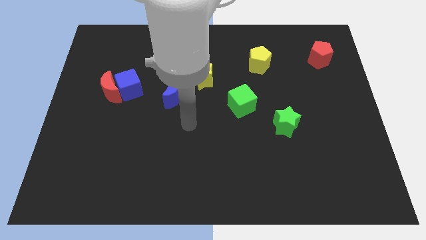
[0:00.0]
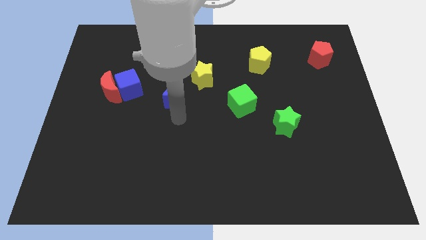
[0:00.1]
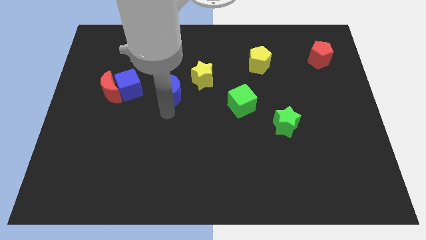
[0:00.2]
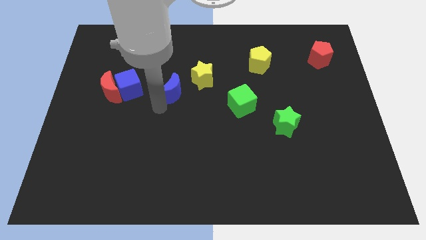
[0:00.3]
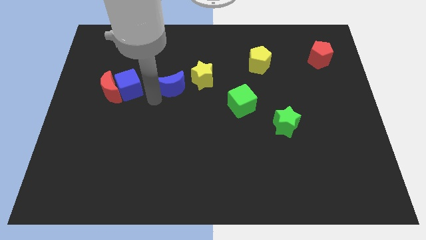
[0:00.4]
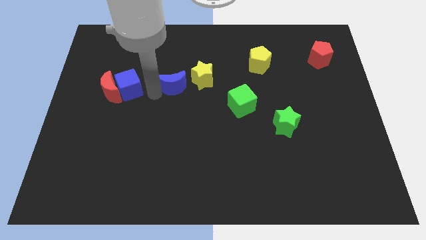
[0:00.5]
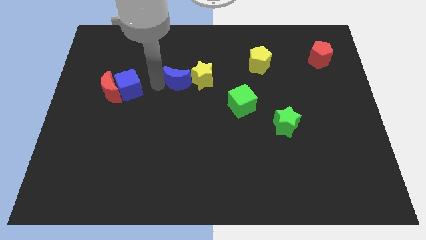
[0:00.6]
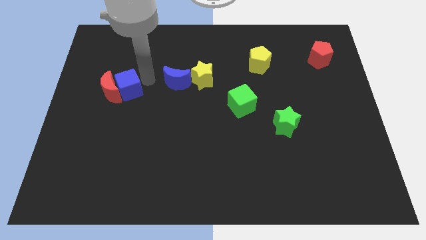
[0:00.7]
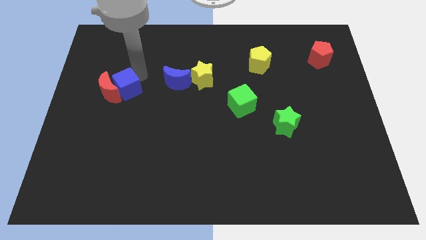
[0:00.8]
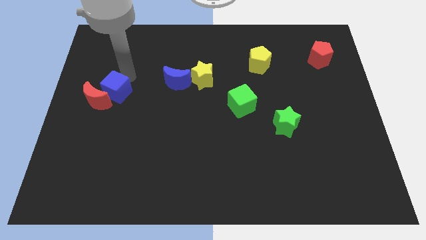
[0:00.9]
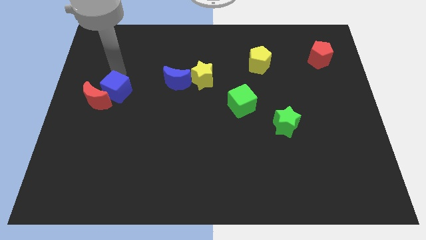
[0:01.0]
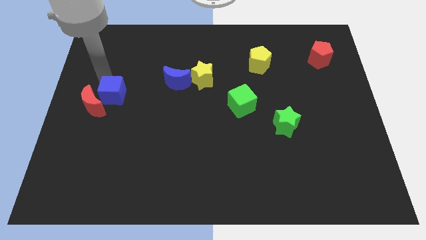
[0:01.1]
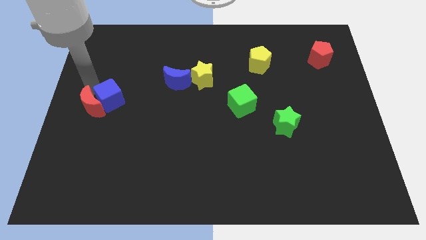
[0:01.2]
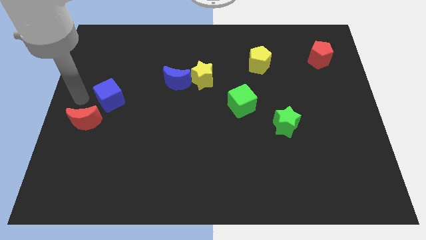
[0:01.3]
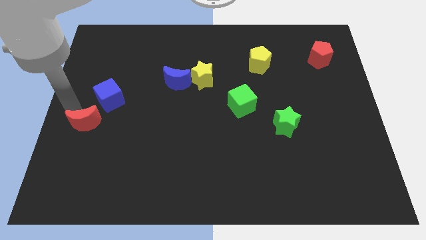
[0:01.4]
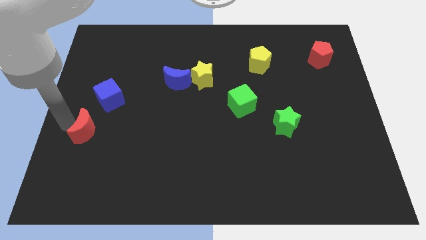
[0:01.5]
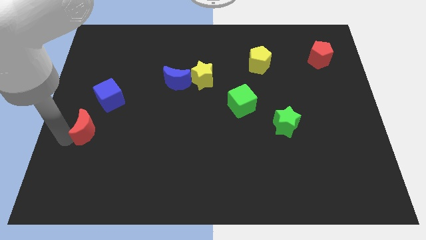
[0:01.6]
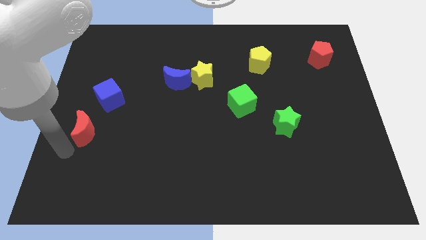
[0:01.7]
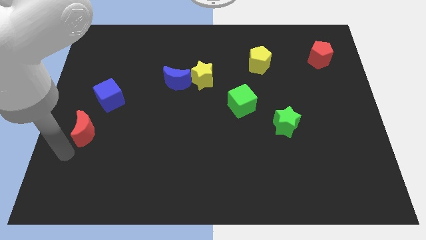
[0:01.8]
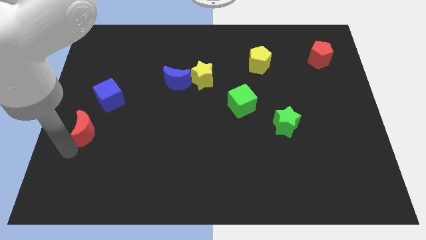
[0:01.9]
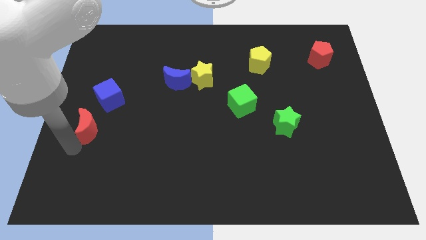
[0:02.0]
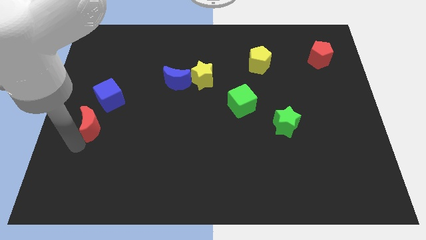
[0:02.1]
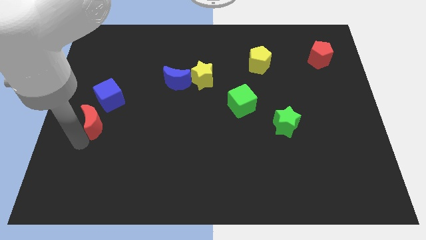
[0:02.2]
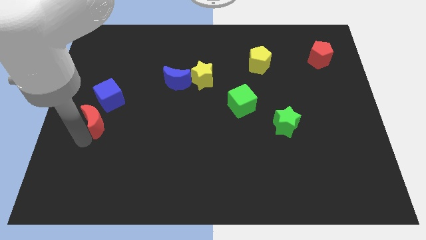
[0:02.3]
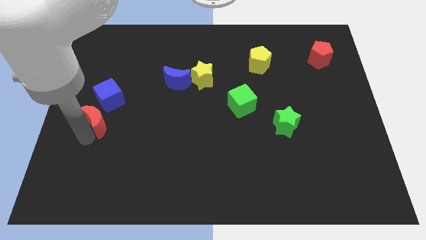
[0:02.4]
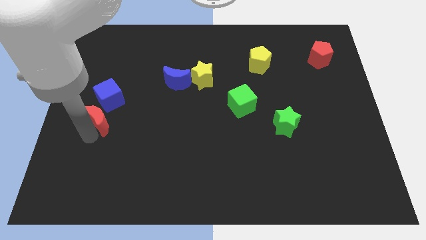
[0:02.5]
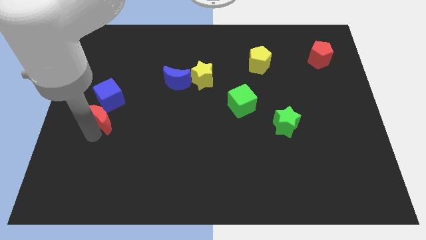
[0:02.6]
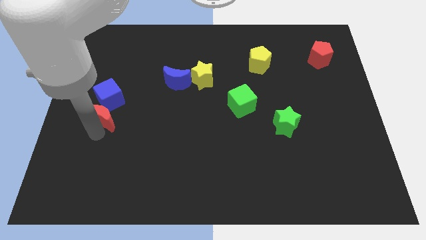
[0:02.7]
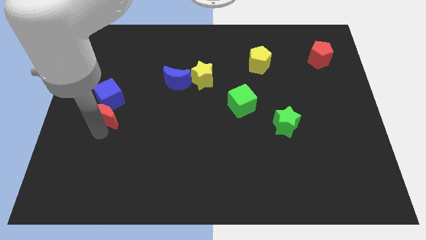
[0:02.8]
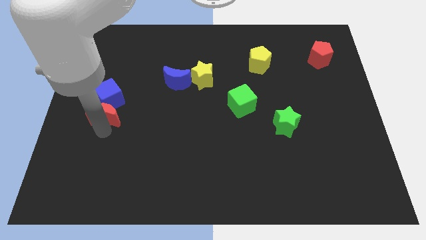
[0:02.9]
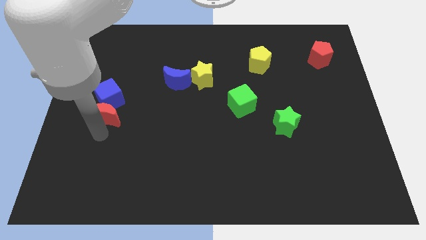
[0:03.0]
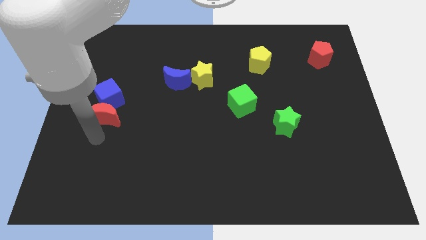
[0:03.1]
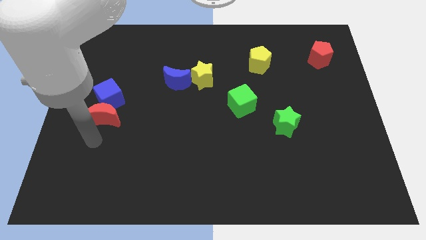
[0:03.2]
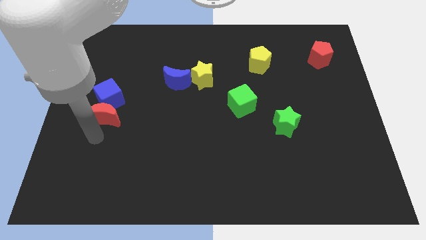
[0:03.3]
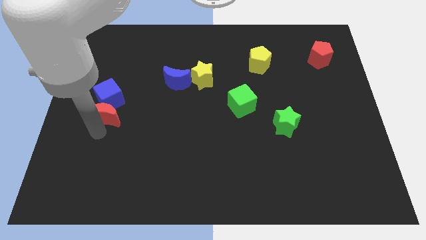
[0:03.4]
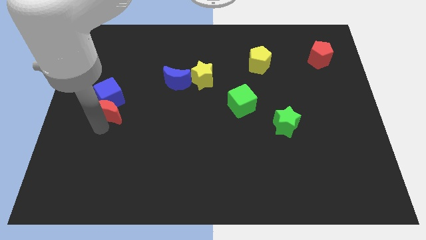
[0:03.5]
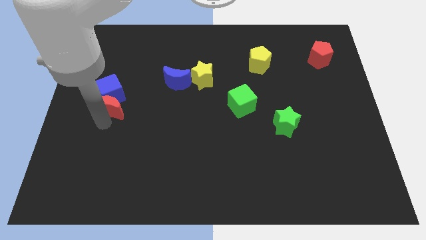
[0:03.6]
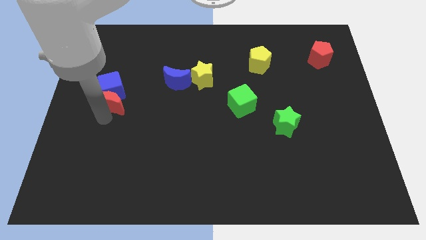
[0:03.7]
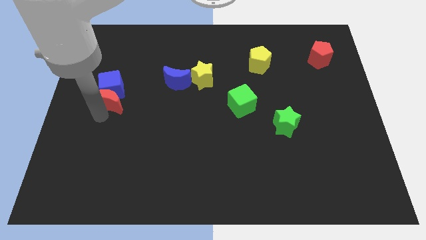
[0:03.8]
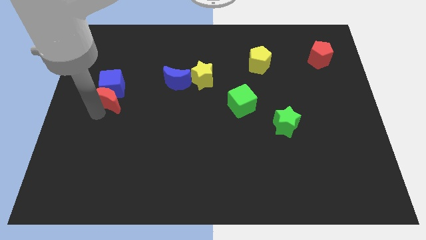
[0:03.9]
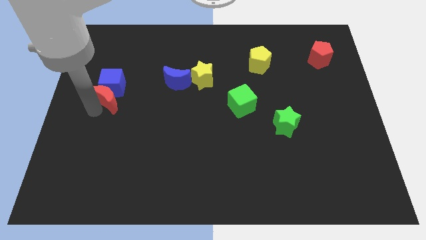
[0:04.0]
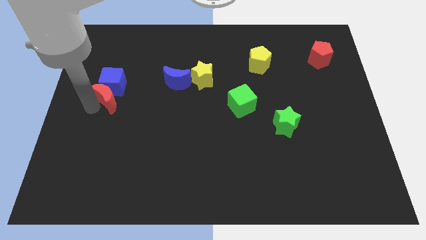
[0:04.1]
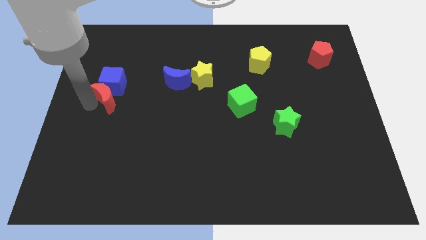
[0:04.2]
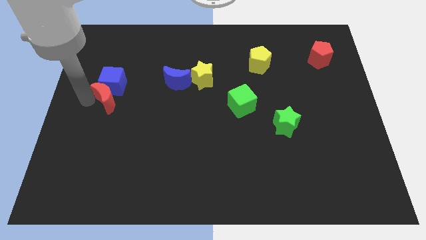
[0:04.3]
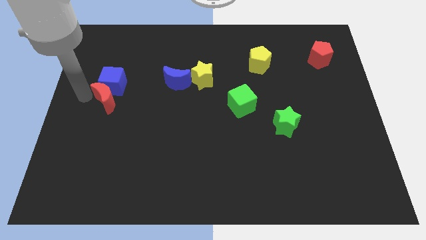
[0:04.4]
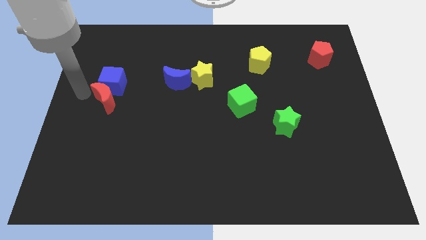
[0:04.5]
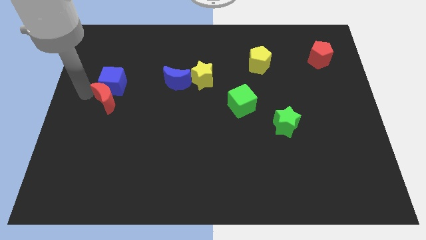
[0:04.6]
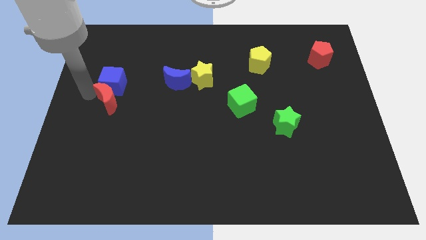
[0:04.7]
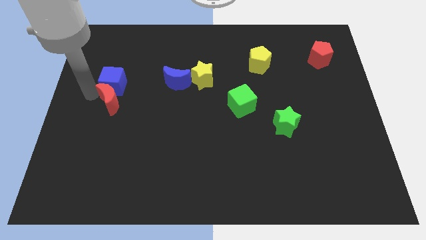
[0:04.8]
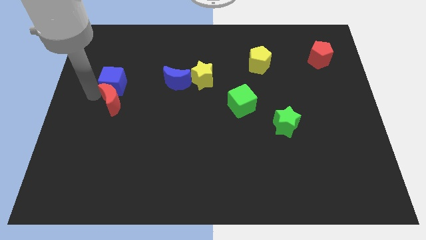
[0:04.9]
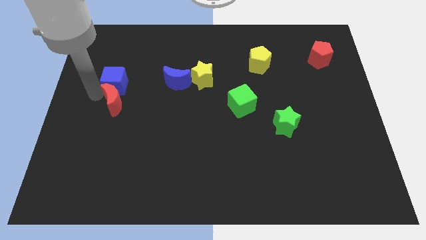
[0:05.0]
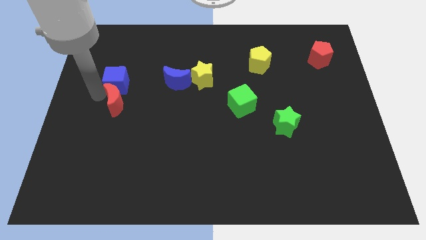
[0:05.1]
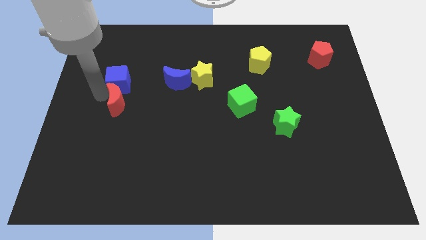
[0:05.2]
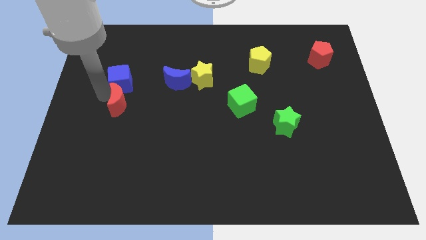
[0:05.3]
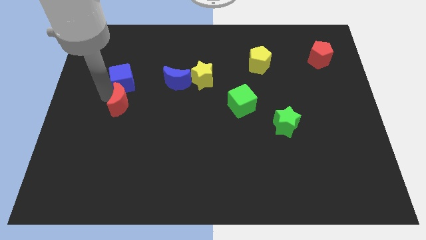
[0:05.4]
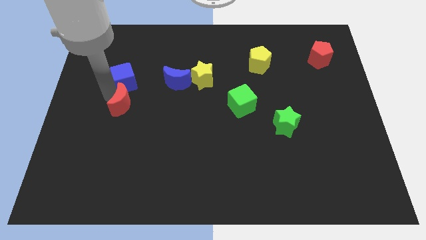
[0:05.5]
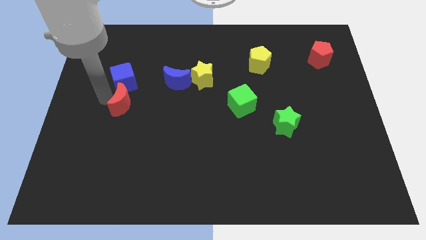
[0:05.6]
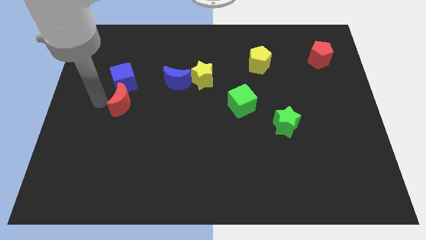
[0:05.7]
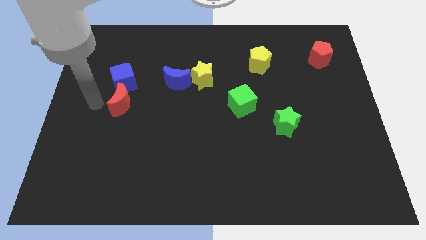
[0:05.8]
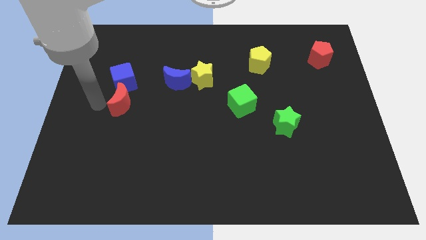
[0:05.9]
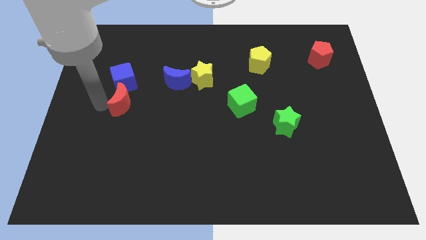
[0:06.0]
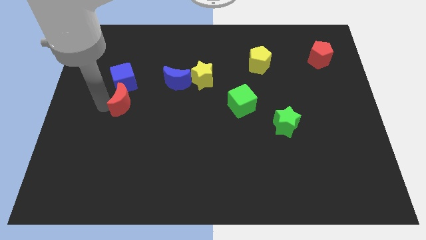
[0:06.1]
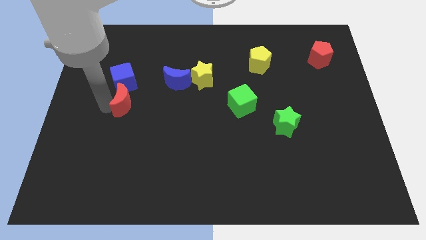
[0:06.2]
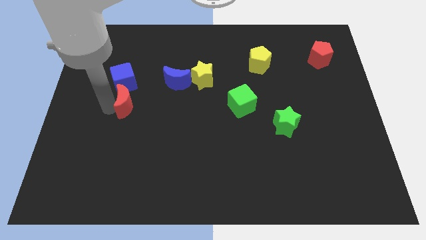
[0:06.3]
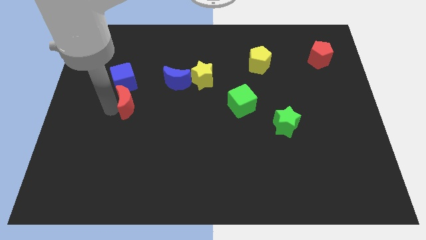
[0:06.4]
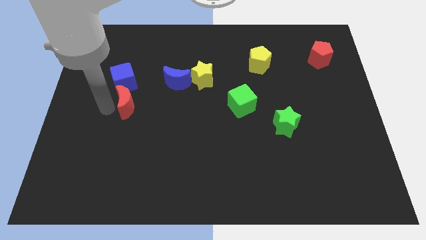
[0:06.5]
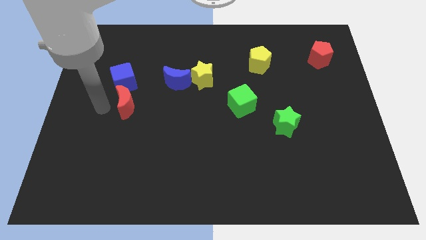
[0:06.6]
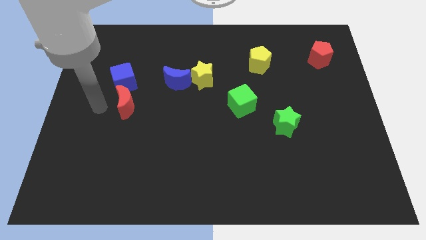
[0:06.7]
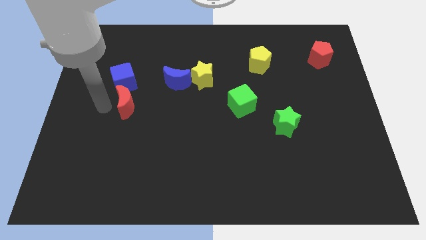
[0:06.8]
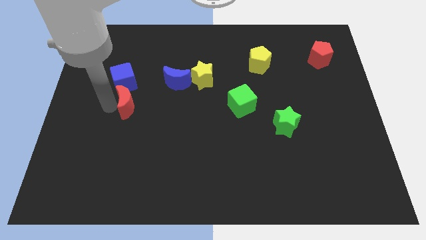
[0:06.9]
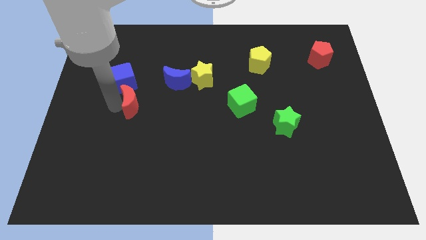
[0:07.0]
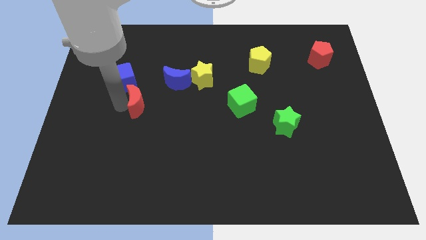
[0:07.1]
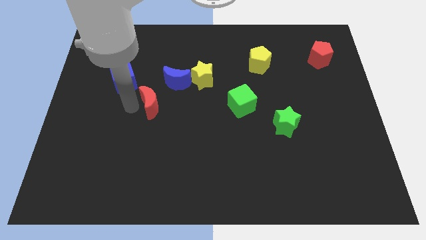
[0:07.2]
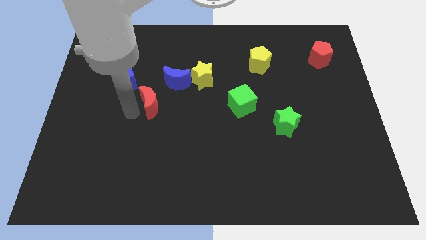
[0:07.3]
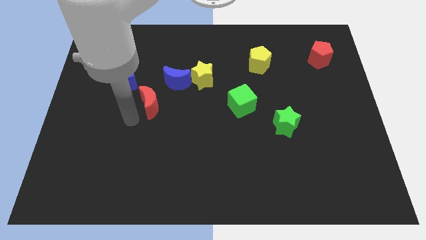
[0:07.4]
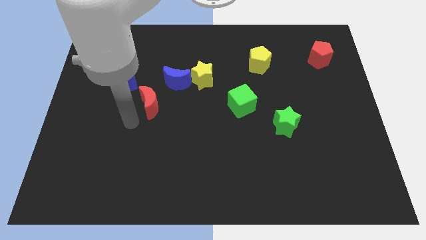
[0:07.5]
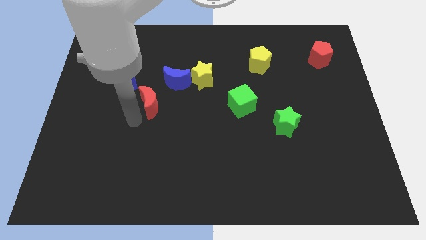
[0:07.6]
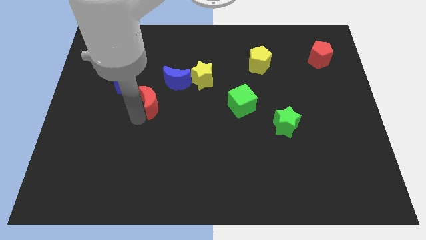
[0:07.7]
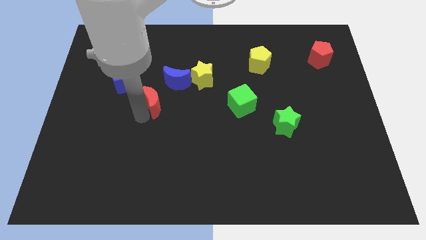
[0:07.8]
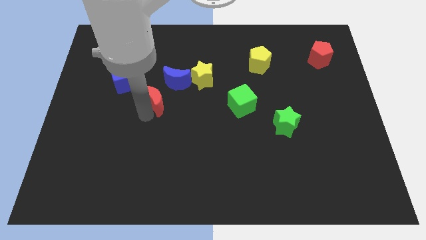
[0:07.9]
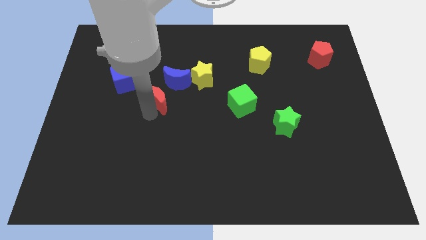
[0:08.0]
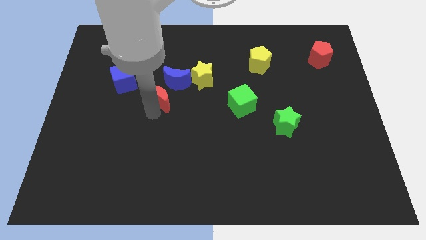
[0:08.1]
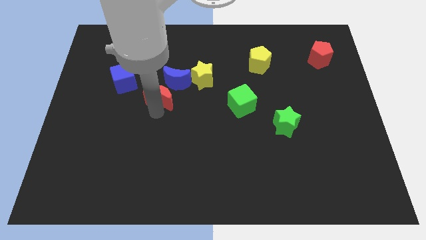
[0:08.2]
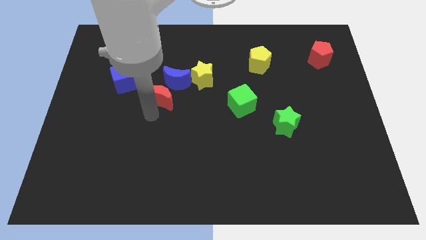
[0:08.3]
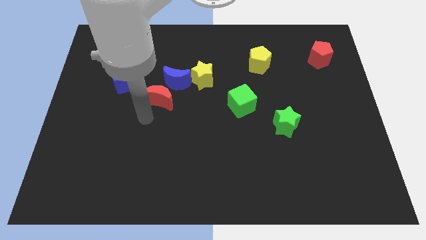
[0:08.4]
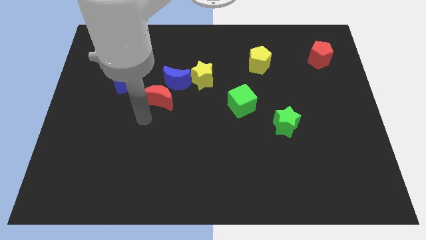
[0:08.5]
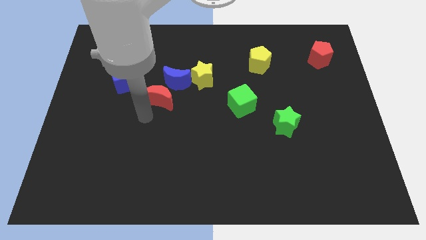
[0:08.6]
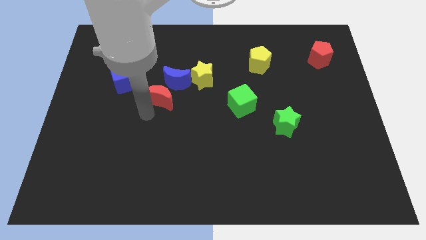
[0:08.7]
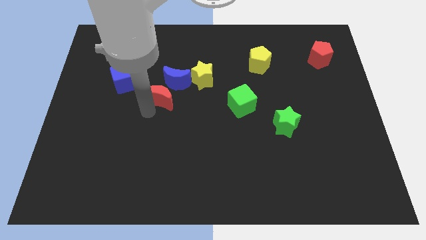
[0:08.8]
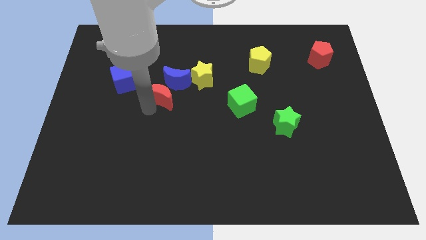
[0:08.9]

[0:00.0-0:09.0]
push the red moon next to the blue moon
